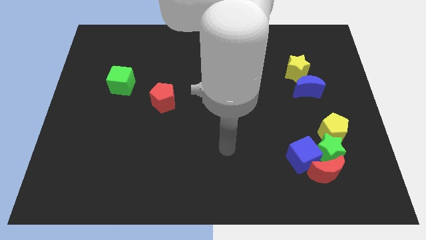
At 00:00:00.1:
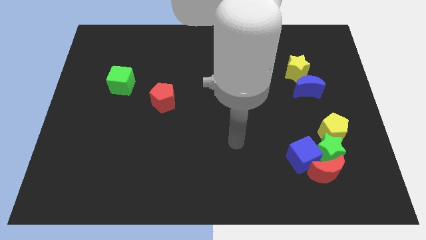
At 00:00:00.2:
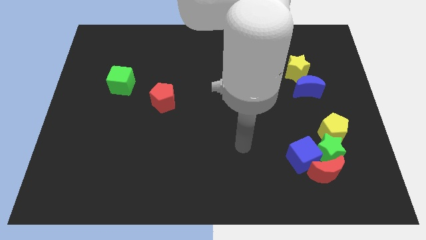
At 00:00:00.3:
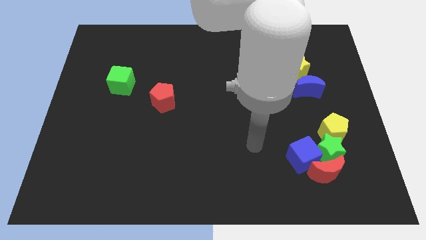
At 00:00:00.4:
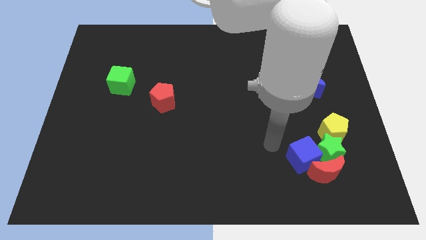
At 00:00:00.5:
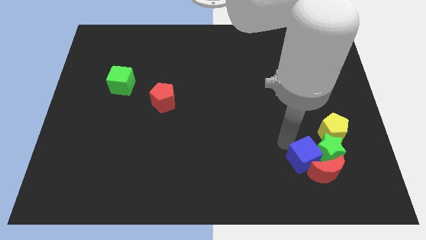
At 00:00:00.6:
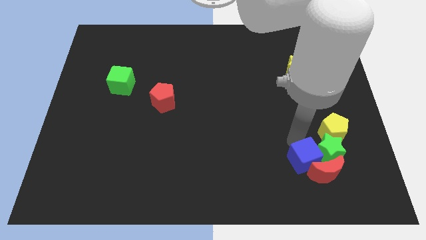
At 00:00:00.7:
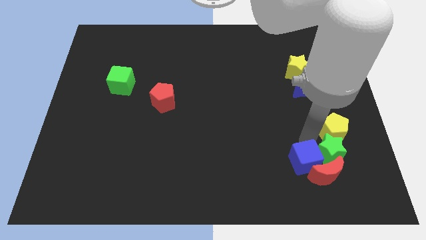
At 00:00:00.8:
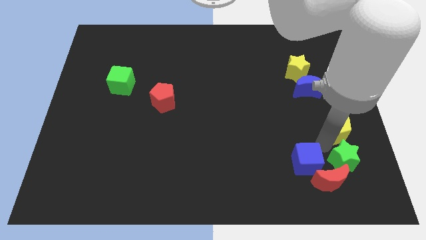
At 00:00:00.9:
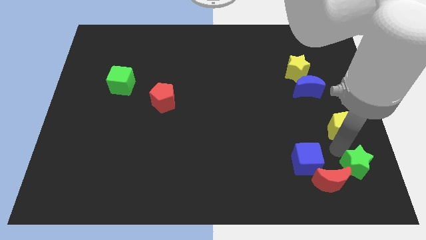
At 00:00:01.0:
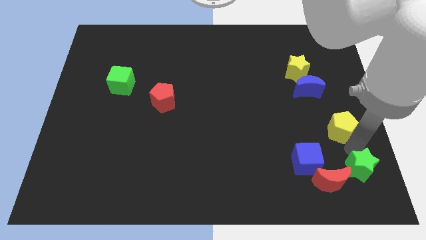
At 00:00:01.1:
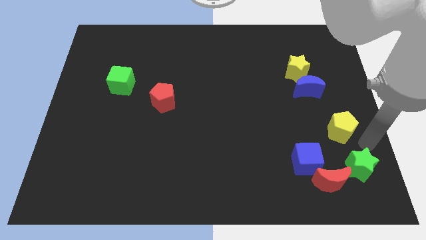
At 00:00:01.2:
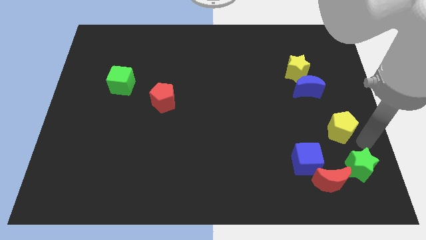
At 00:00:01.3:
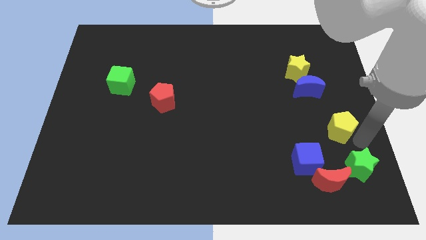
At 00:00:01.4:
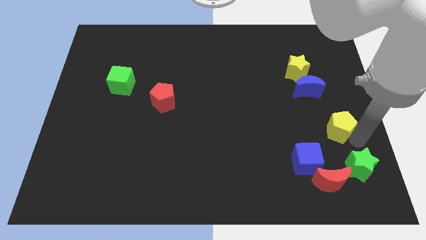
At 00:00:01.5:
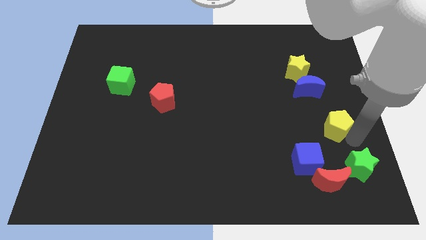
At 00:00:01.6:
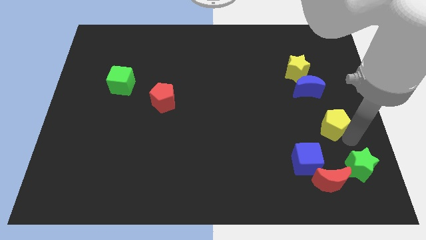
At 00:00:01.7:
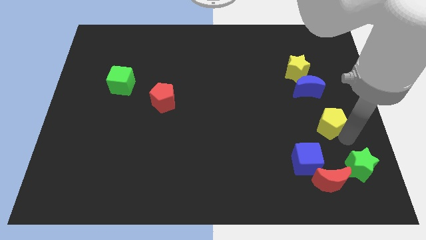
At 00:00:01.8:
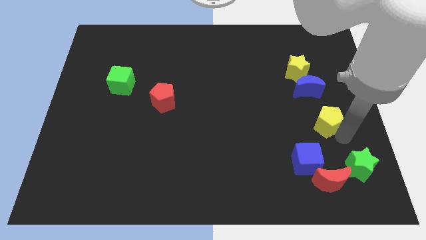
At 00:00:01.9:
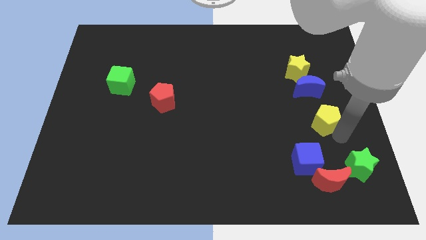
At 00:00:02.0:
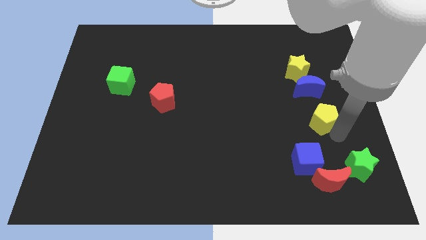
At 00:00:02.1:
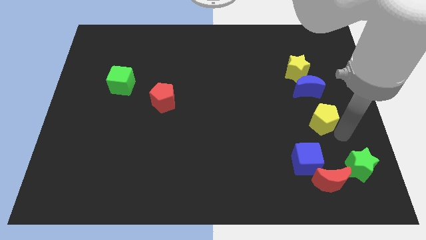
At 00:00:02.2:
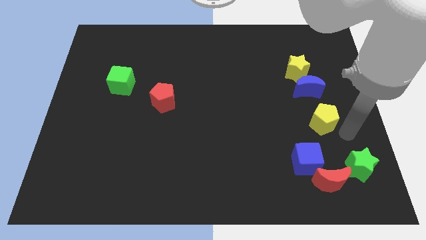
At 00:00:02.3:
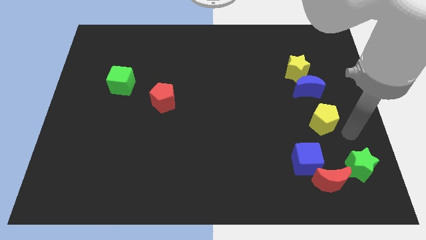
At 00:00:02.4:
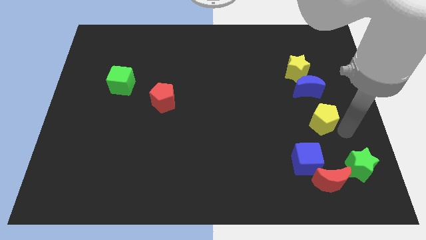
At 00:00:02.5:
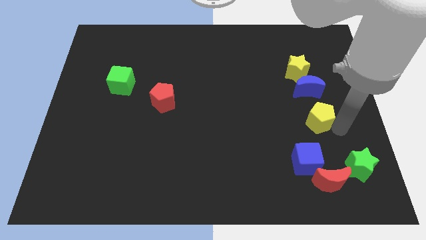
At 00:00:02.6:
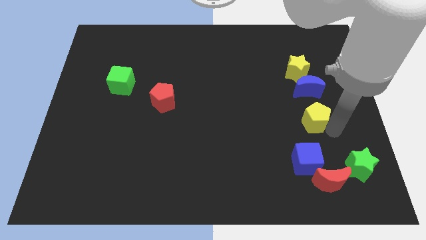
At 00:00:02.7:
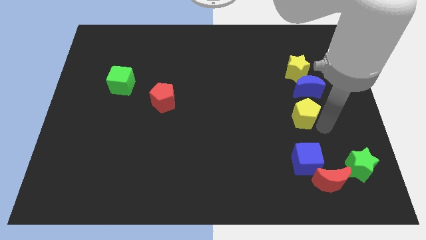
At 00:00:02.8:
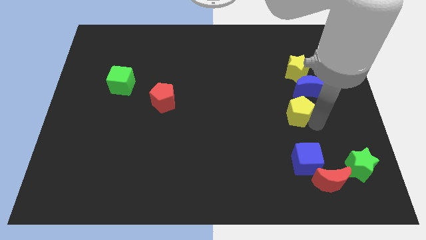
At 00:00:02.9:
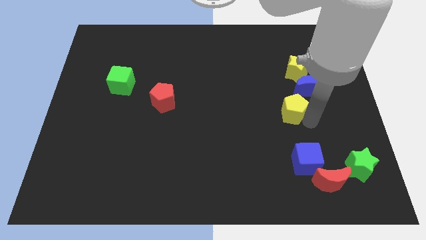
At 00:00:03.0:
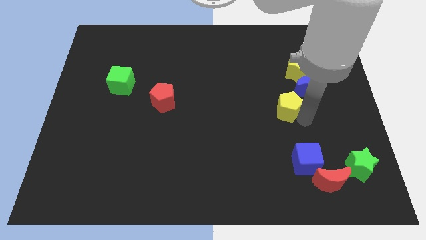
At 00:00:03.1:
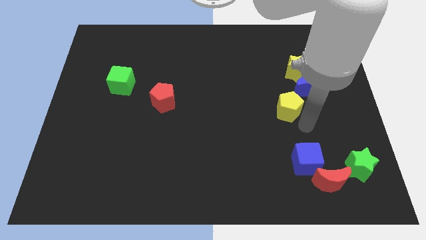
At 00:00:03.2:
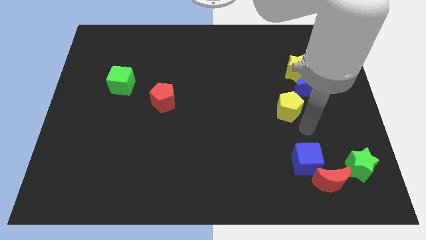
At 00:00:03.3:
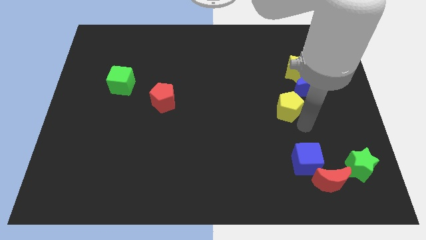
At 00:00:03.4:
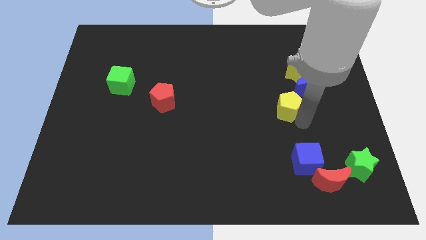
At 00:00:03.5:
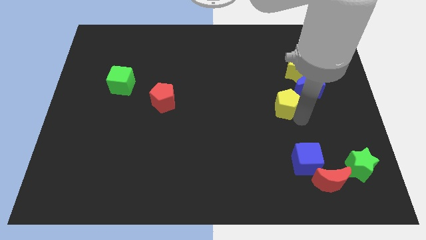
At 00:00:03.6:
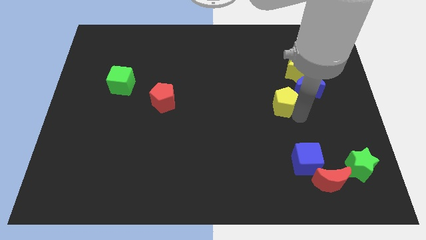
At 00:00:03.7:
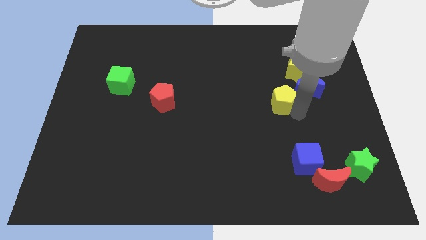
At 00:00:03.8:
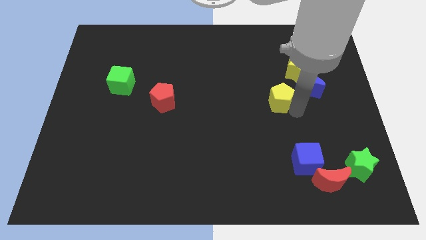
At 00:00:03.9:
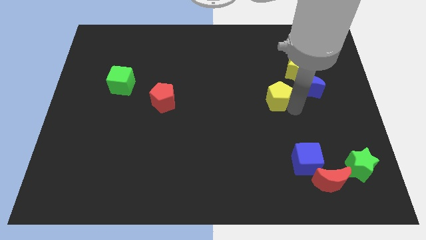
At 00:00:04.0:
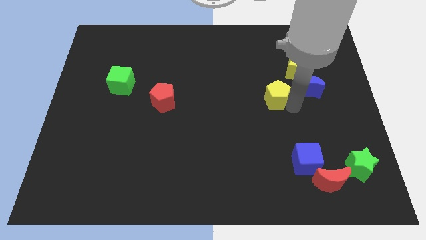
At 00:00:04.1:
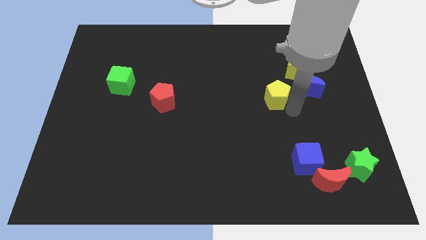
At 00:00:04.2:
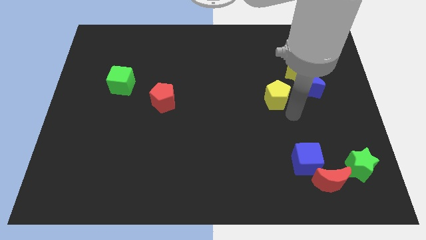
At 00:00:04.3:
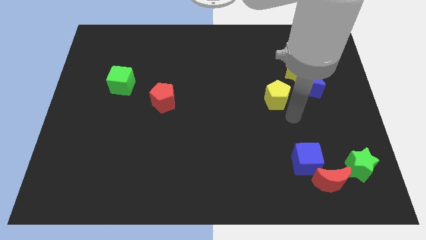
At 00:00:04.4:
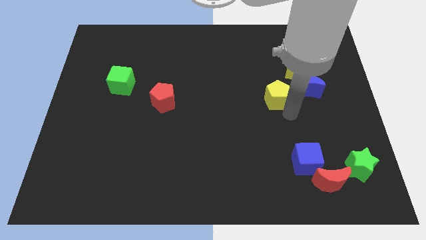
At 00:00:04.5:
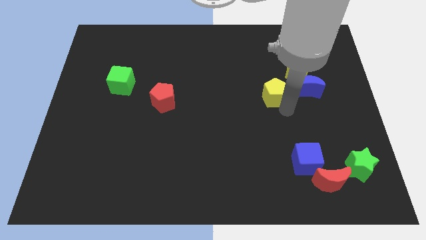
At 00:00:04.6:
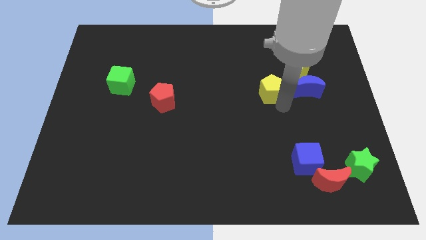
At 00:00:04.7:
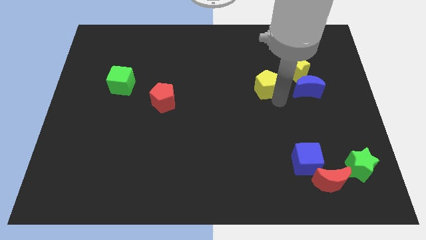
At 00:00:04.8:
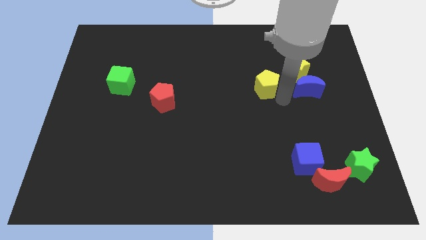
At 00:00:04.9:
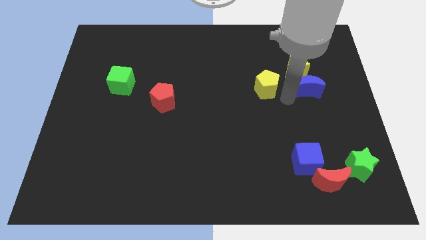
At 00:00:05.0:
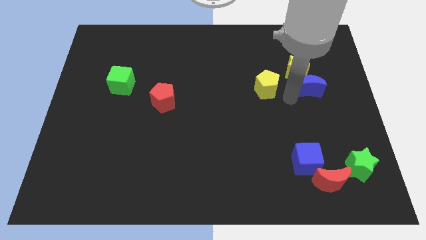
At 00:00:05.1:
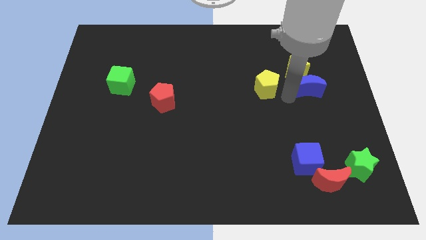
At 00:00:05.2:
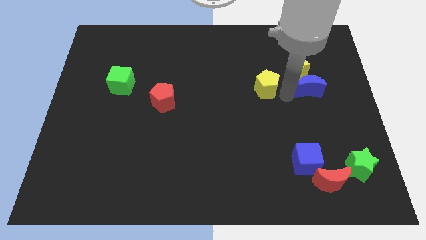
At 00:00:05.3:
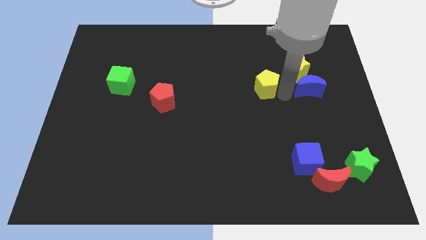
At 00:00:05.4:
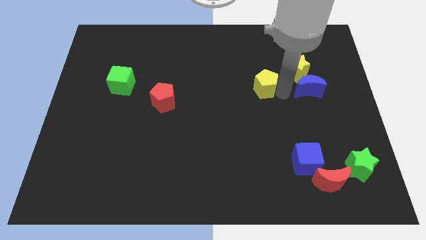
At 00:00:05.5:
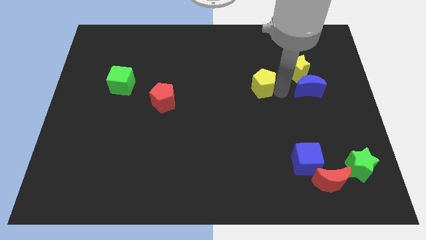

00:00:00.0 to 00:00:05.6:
push the yellow pentagon upwards and then to the left

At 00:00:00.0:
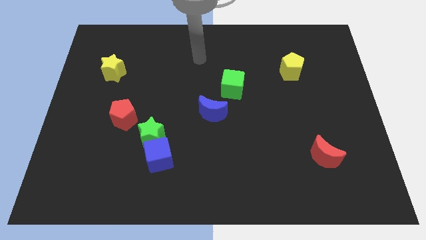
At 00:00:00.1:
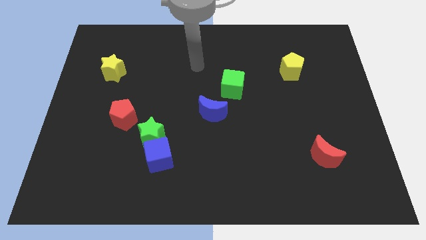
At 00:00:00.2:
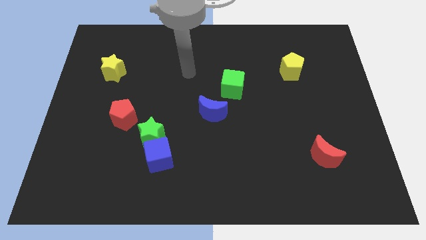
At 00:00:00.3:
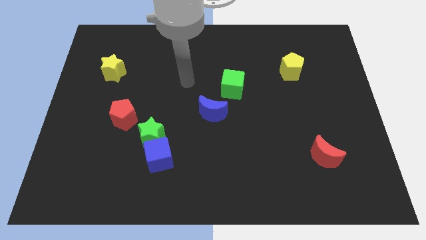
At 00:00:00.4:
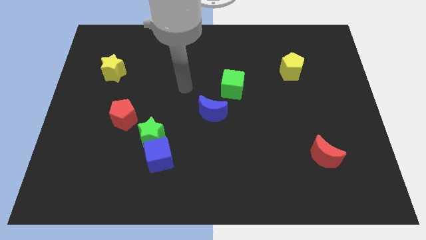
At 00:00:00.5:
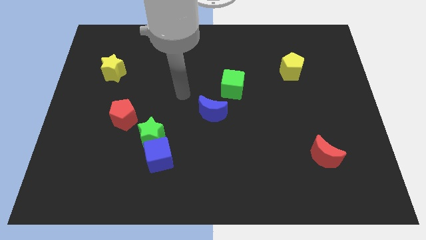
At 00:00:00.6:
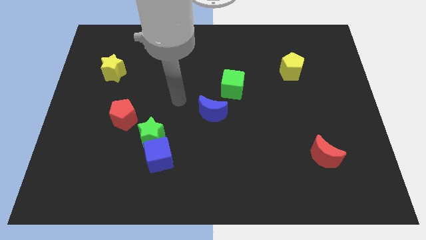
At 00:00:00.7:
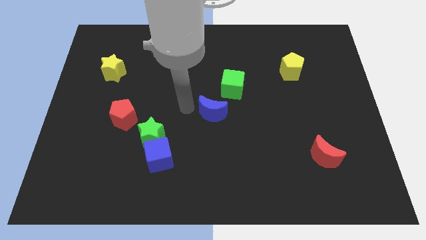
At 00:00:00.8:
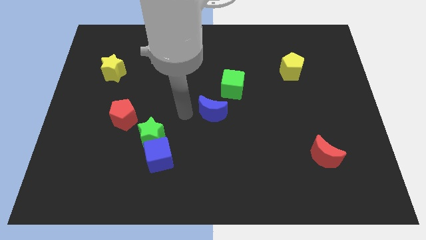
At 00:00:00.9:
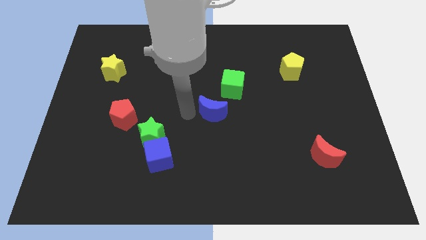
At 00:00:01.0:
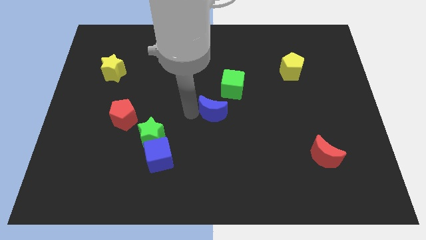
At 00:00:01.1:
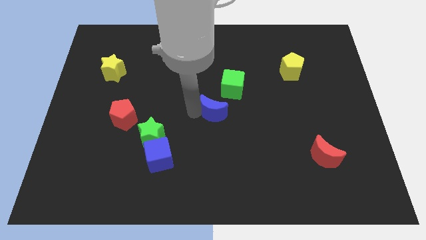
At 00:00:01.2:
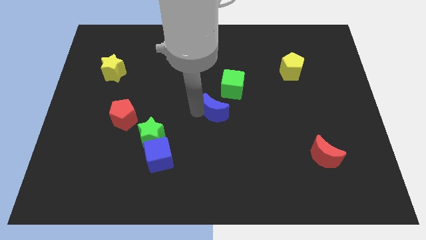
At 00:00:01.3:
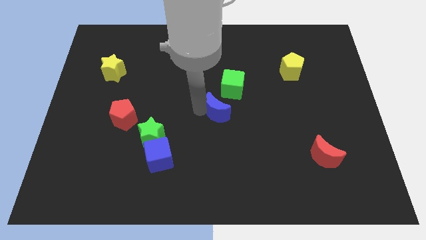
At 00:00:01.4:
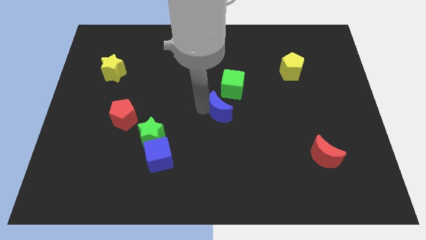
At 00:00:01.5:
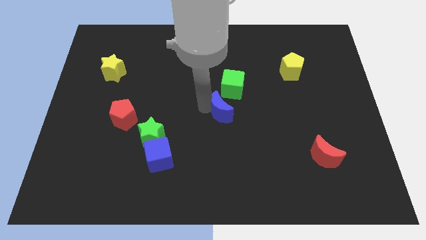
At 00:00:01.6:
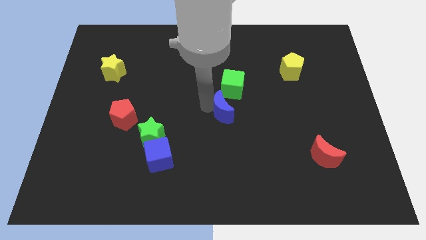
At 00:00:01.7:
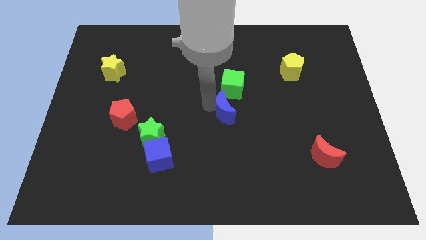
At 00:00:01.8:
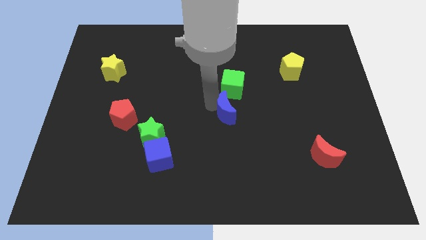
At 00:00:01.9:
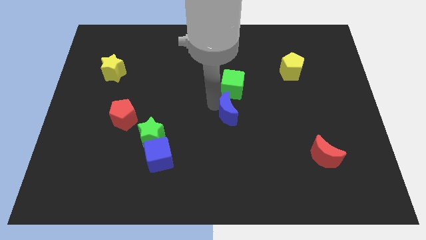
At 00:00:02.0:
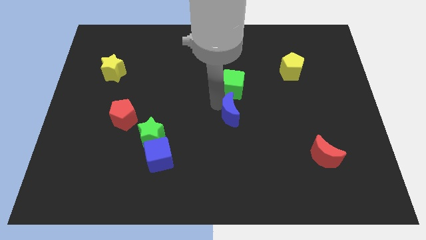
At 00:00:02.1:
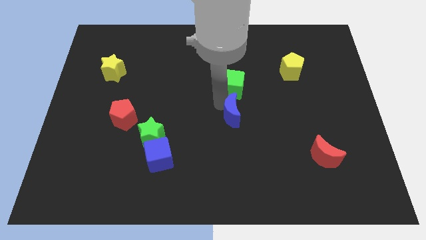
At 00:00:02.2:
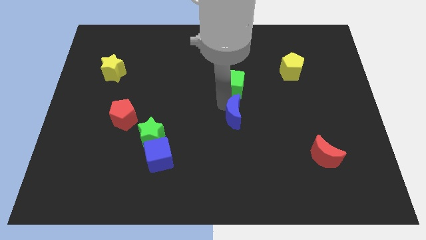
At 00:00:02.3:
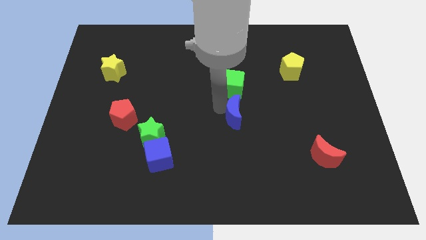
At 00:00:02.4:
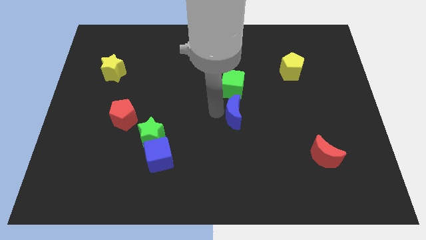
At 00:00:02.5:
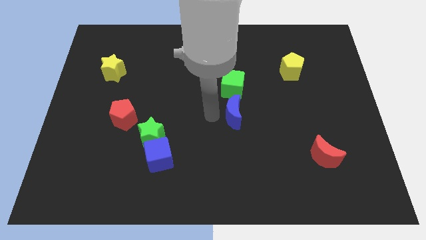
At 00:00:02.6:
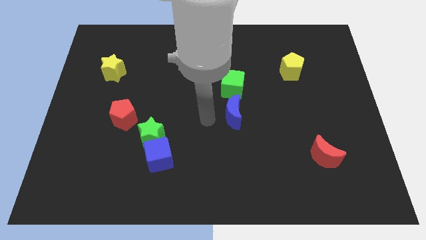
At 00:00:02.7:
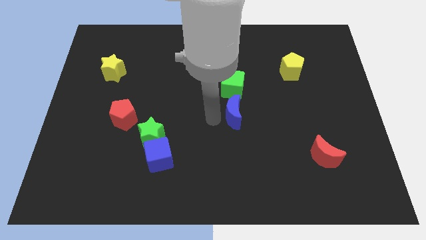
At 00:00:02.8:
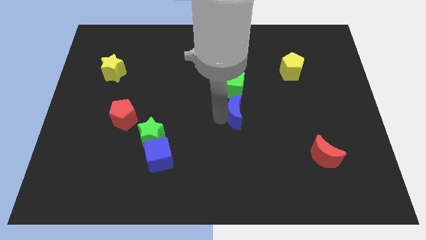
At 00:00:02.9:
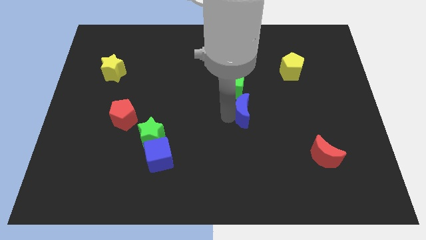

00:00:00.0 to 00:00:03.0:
slide the blue moon somewhat to the right
